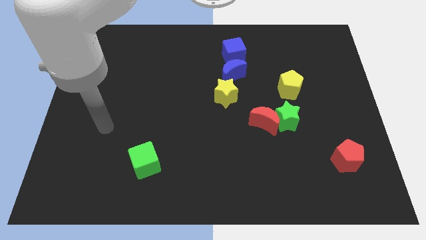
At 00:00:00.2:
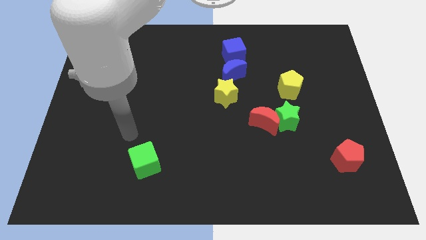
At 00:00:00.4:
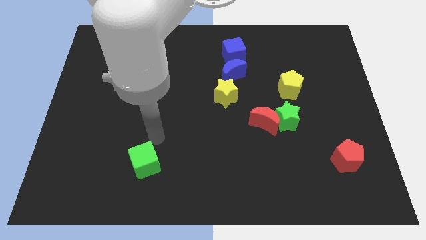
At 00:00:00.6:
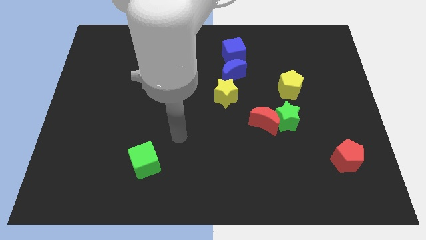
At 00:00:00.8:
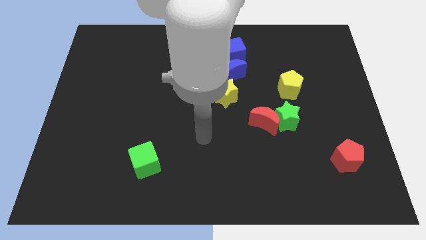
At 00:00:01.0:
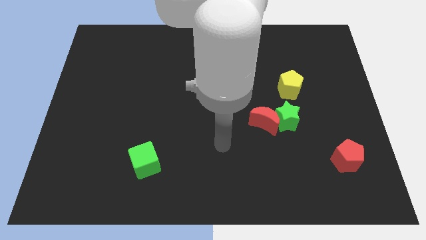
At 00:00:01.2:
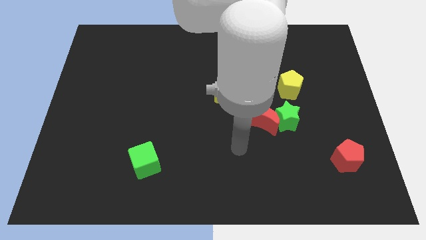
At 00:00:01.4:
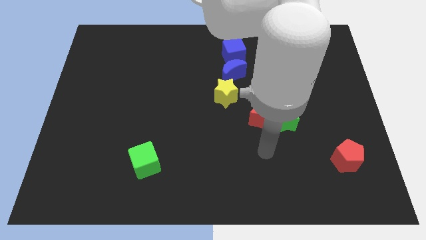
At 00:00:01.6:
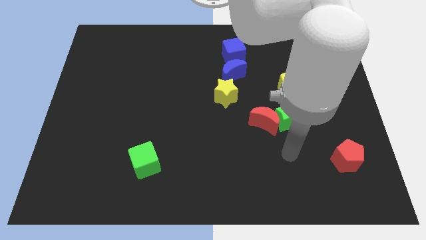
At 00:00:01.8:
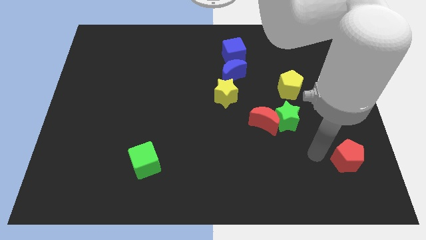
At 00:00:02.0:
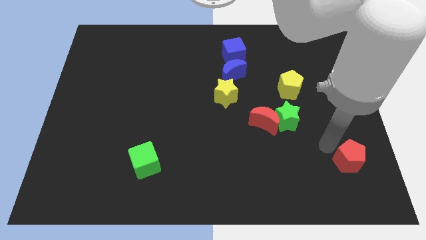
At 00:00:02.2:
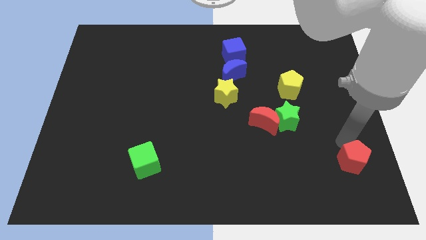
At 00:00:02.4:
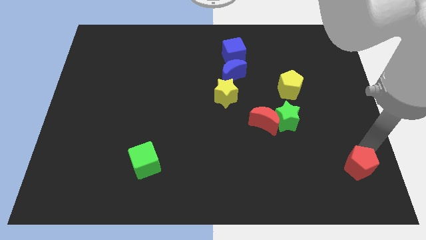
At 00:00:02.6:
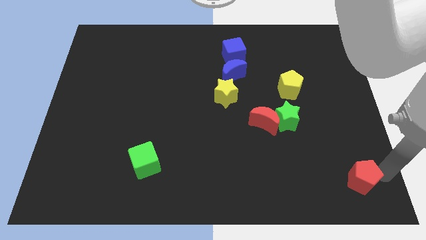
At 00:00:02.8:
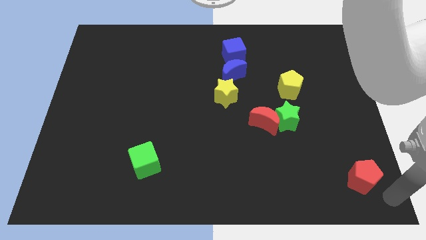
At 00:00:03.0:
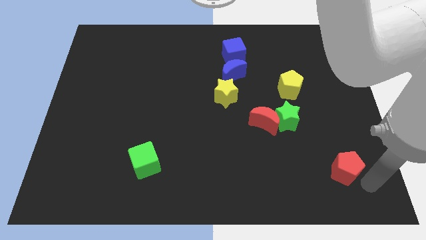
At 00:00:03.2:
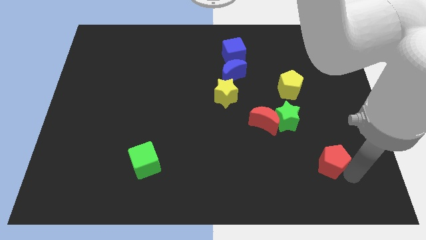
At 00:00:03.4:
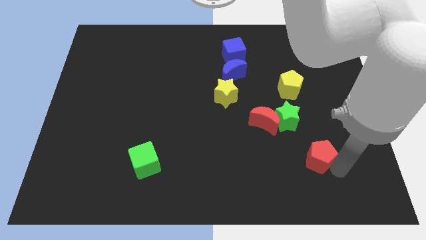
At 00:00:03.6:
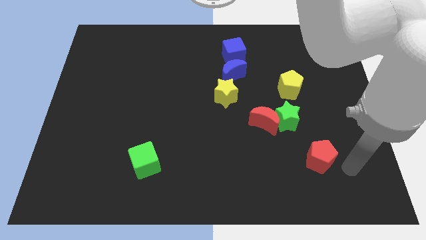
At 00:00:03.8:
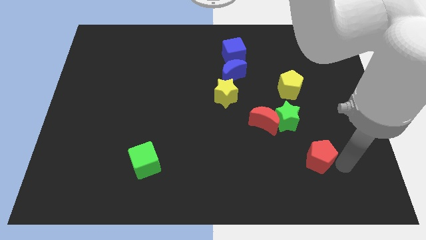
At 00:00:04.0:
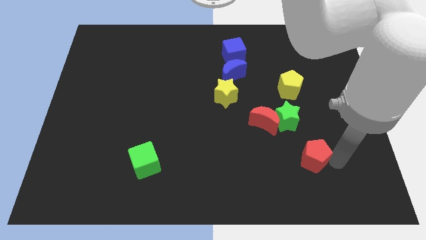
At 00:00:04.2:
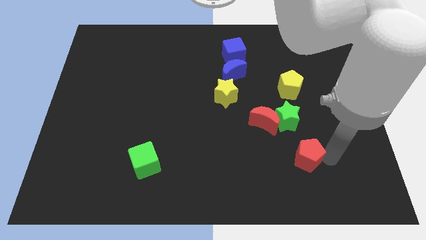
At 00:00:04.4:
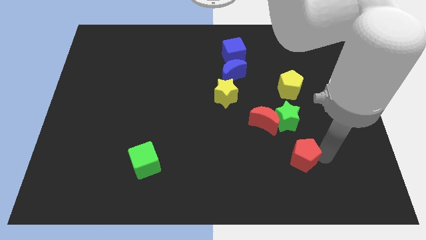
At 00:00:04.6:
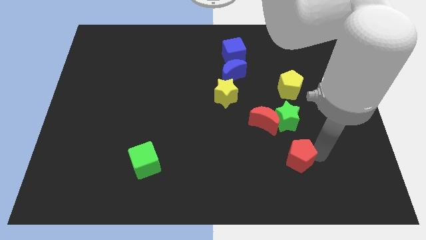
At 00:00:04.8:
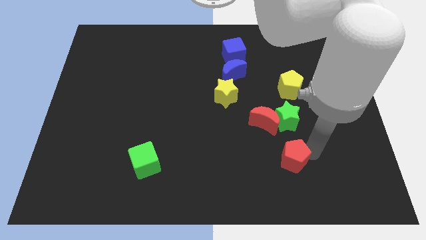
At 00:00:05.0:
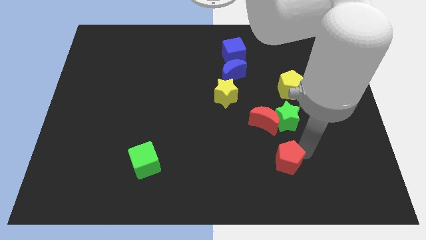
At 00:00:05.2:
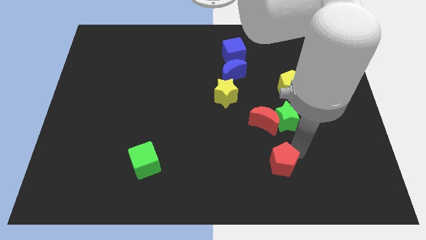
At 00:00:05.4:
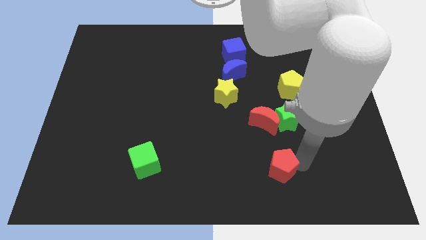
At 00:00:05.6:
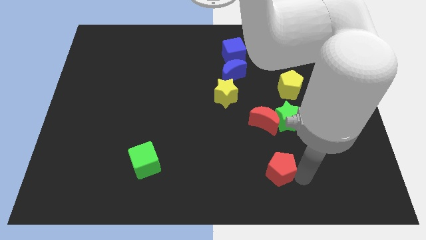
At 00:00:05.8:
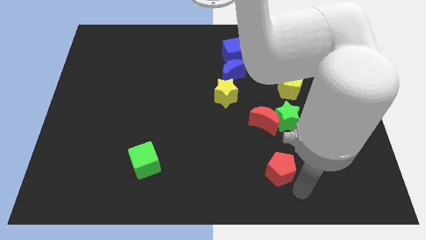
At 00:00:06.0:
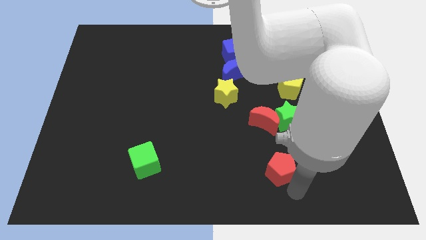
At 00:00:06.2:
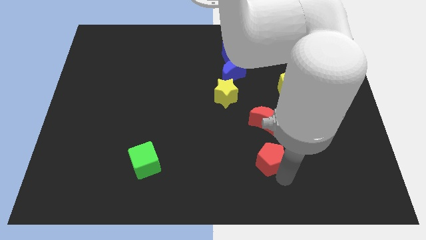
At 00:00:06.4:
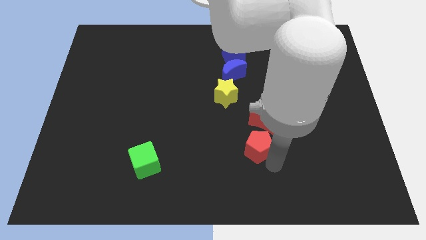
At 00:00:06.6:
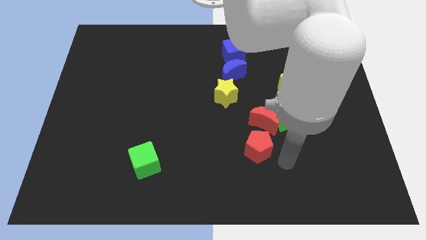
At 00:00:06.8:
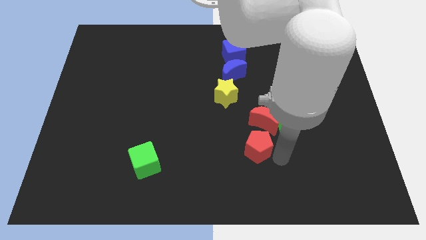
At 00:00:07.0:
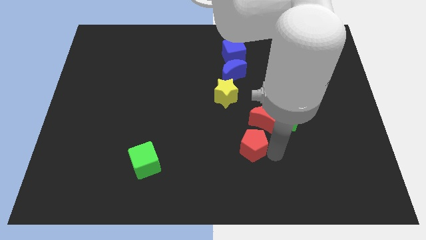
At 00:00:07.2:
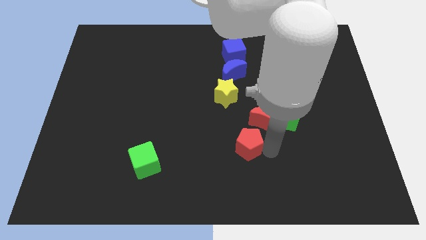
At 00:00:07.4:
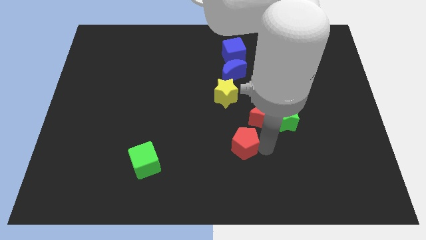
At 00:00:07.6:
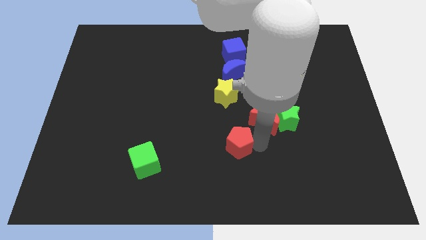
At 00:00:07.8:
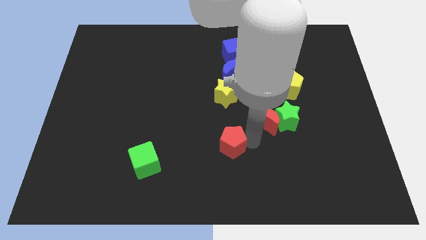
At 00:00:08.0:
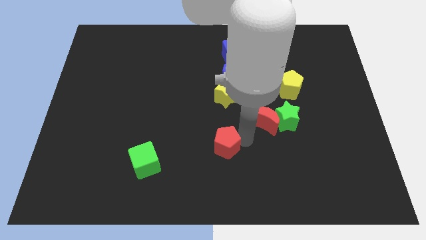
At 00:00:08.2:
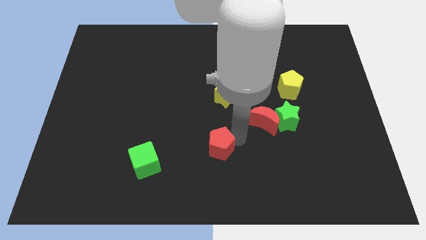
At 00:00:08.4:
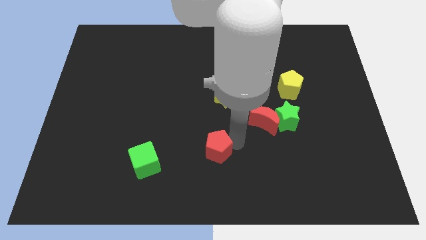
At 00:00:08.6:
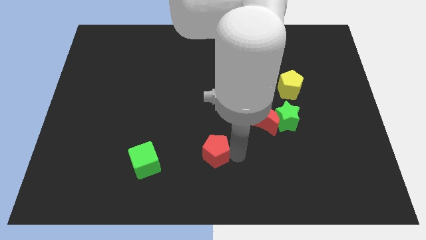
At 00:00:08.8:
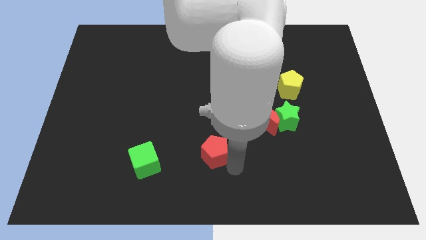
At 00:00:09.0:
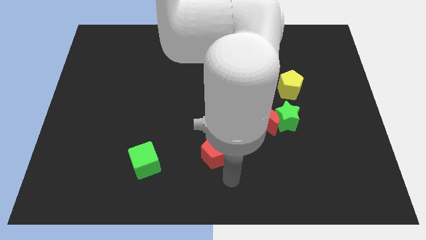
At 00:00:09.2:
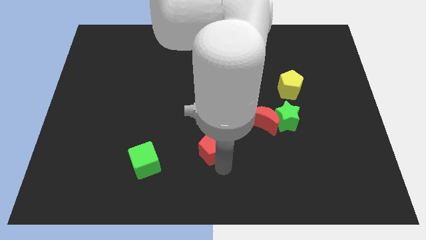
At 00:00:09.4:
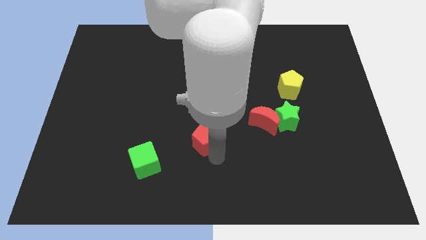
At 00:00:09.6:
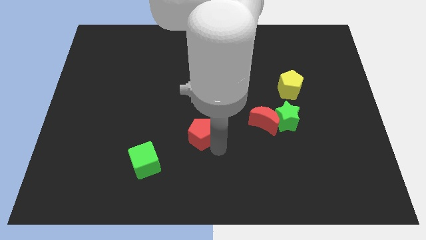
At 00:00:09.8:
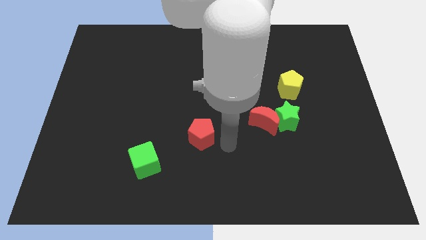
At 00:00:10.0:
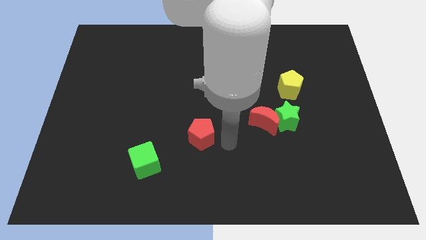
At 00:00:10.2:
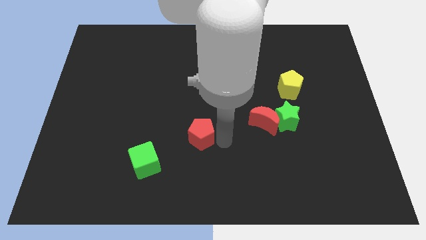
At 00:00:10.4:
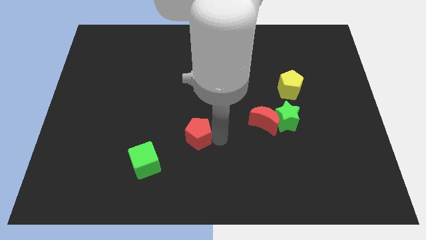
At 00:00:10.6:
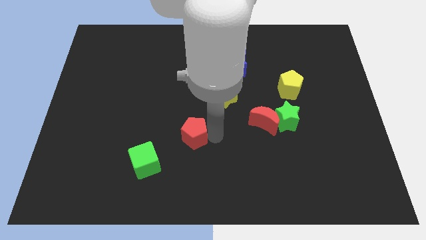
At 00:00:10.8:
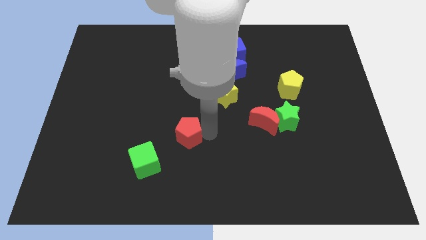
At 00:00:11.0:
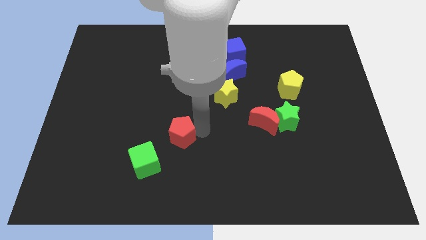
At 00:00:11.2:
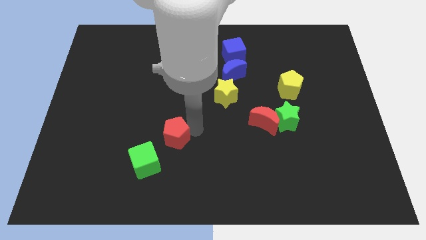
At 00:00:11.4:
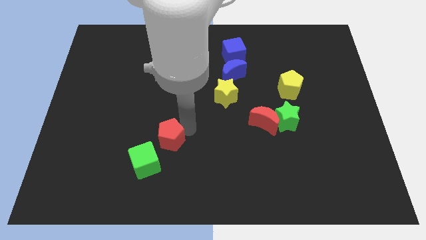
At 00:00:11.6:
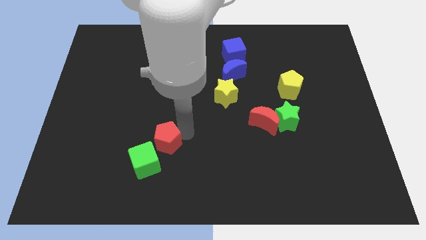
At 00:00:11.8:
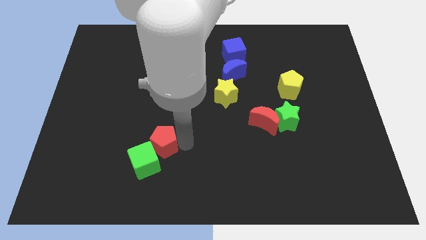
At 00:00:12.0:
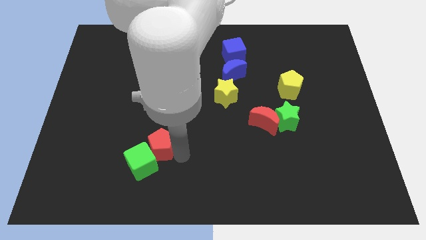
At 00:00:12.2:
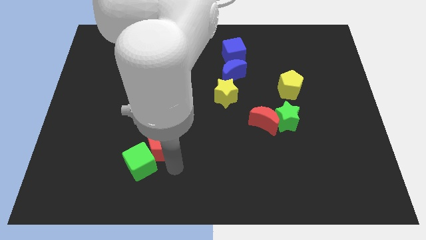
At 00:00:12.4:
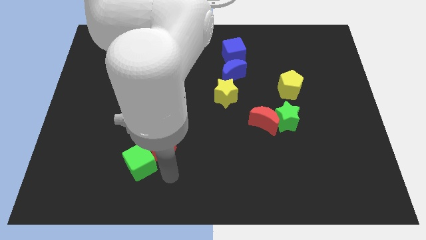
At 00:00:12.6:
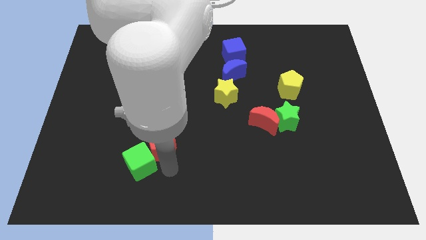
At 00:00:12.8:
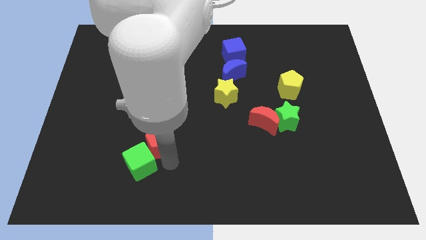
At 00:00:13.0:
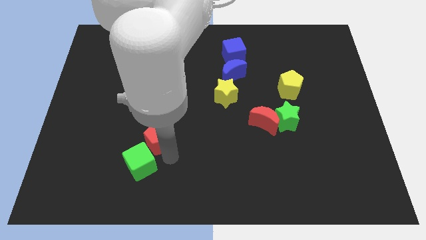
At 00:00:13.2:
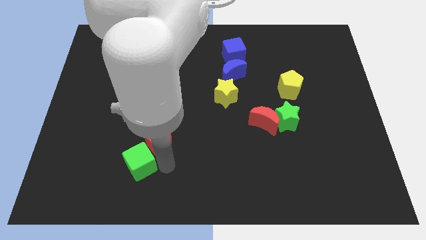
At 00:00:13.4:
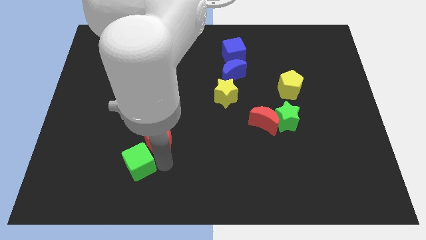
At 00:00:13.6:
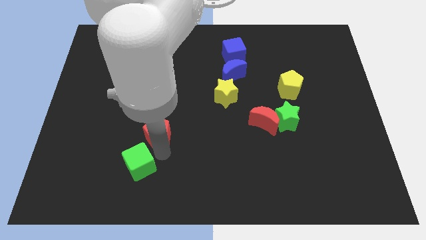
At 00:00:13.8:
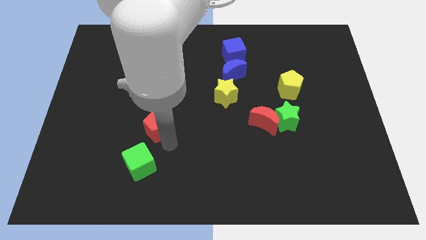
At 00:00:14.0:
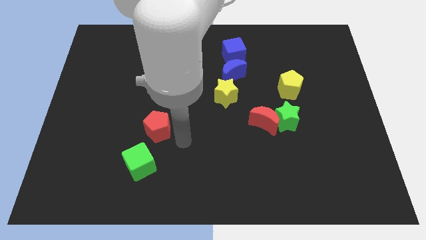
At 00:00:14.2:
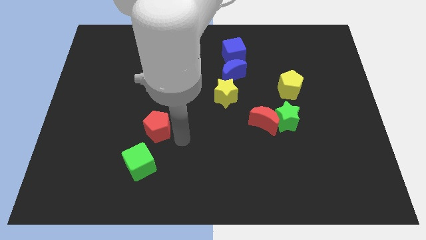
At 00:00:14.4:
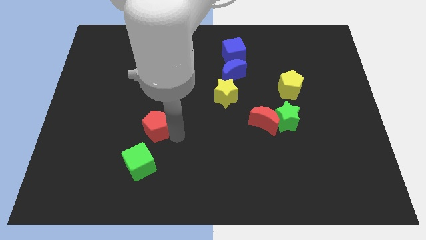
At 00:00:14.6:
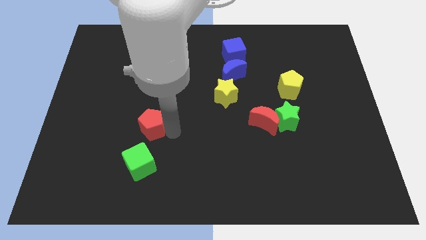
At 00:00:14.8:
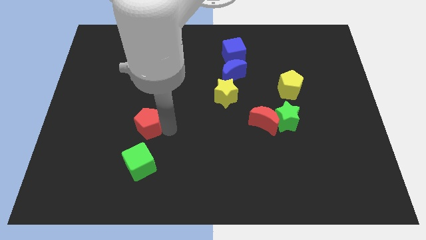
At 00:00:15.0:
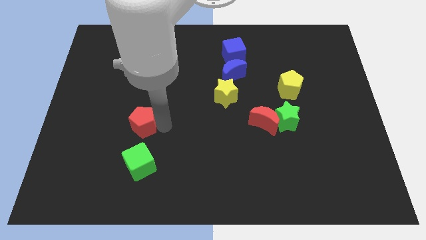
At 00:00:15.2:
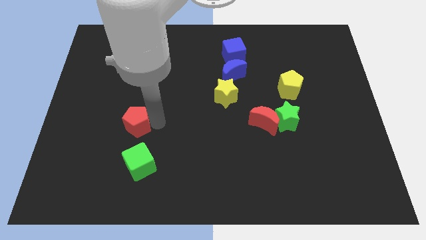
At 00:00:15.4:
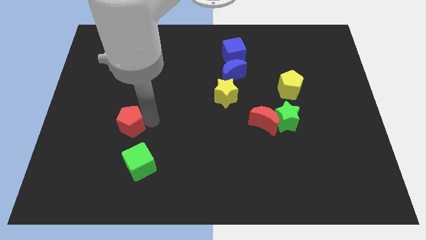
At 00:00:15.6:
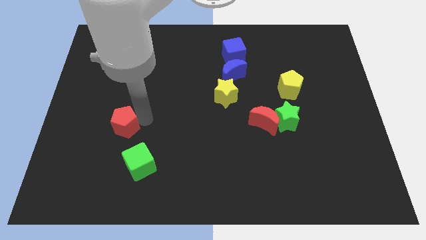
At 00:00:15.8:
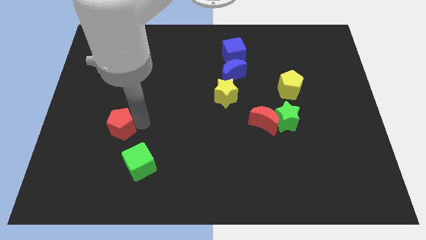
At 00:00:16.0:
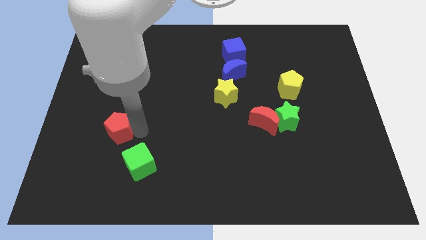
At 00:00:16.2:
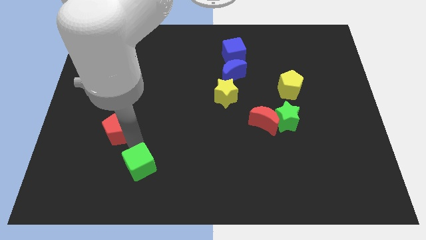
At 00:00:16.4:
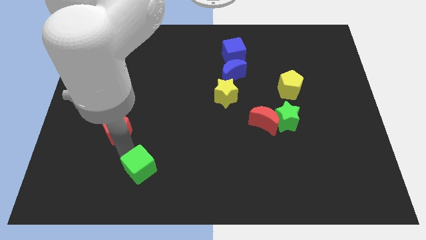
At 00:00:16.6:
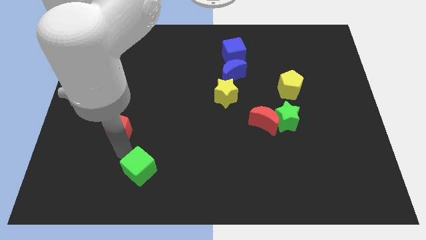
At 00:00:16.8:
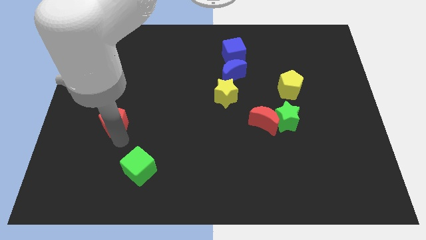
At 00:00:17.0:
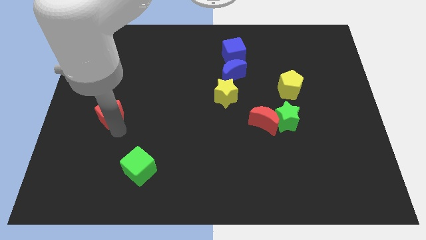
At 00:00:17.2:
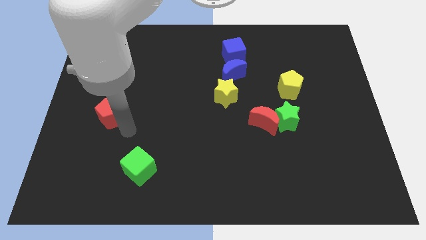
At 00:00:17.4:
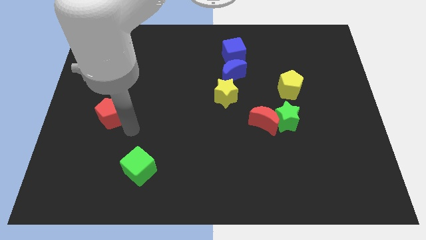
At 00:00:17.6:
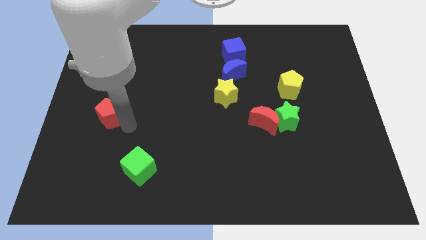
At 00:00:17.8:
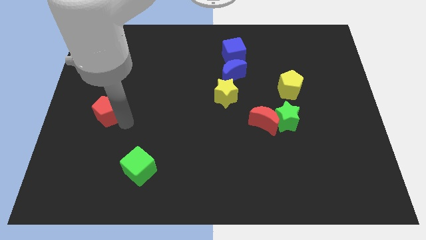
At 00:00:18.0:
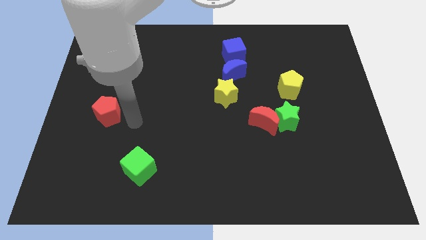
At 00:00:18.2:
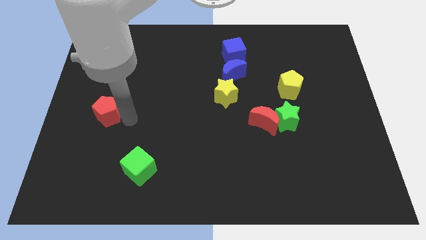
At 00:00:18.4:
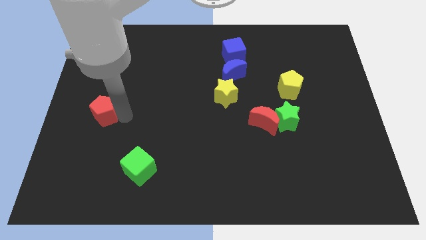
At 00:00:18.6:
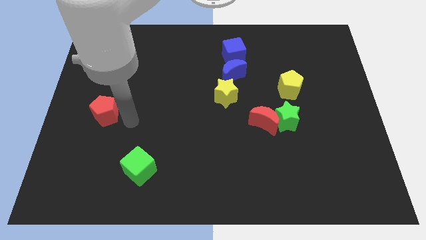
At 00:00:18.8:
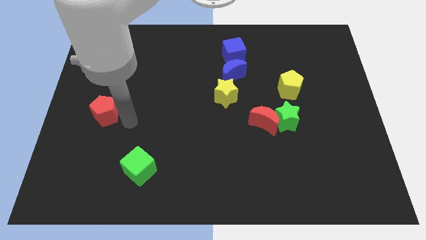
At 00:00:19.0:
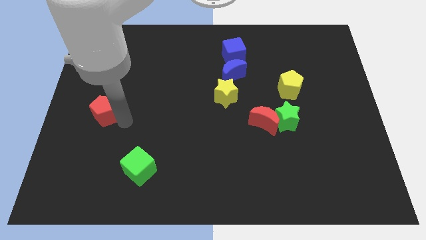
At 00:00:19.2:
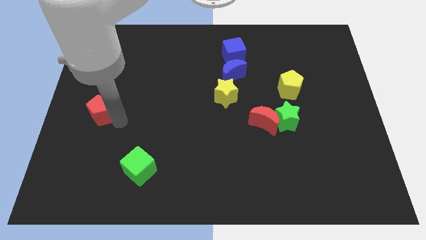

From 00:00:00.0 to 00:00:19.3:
push the red pentagon to the left side
